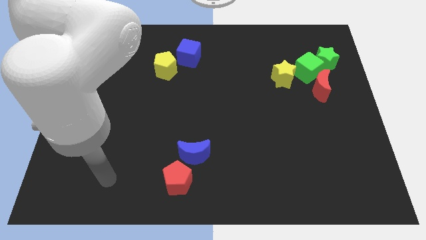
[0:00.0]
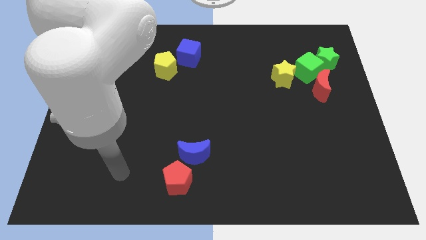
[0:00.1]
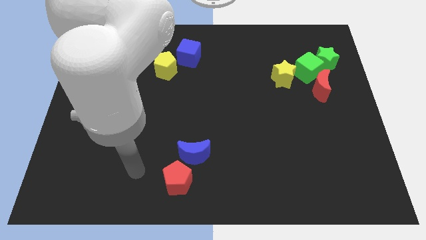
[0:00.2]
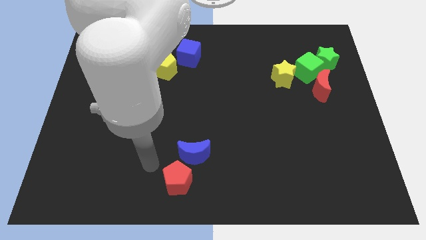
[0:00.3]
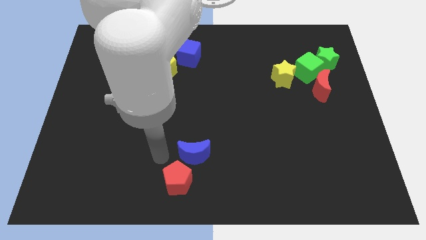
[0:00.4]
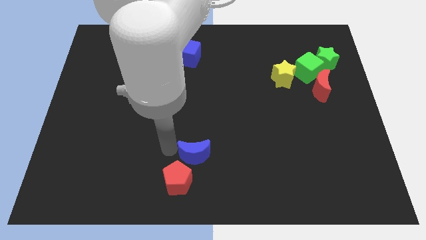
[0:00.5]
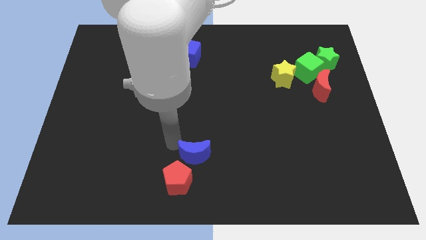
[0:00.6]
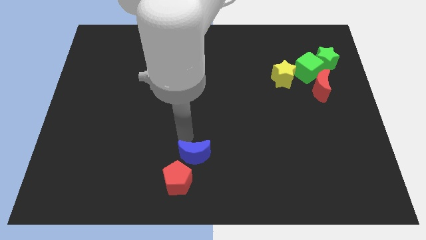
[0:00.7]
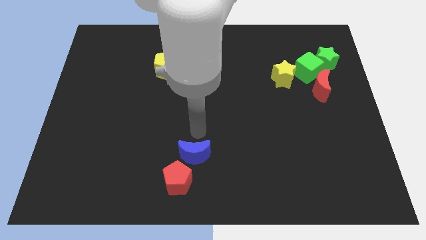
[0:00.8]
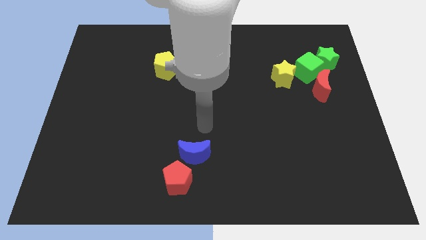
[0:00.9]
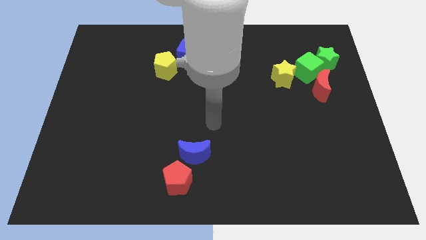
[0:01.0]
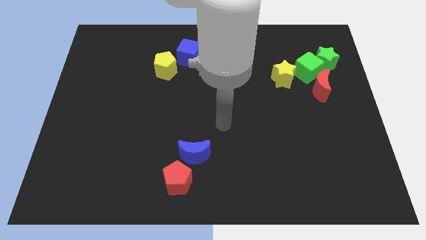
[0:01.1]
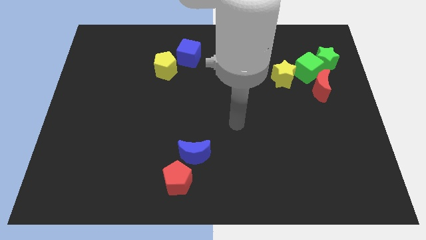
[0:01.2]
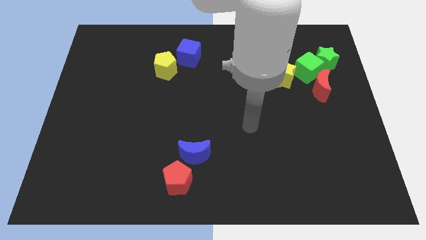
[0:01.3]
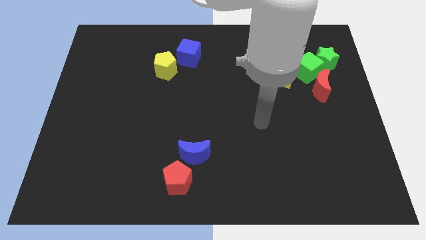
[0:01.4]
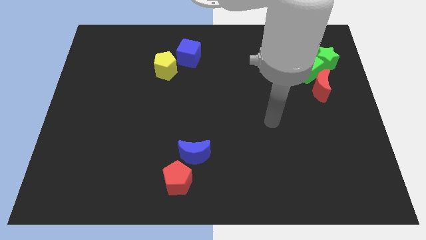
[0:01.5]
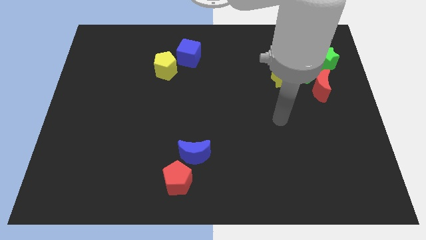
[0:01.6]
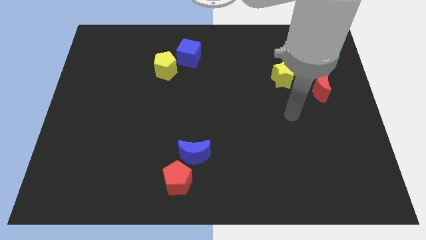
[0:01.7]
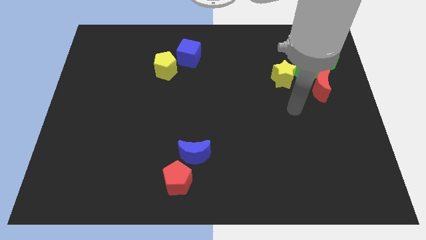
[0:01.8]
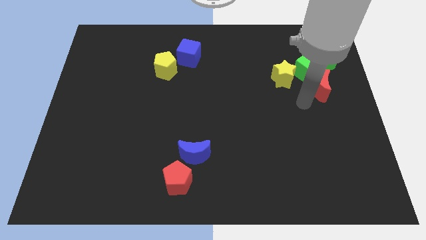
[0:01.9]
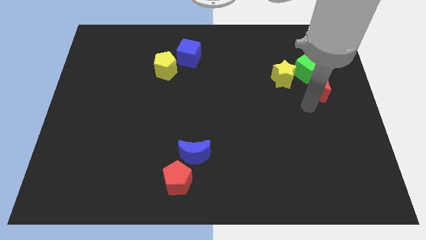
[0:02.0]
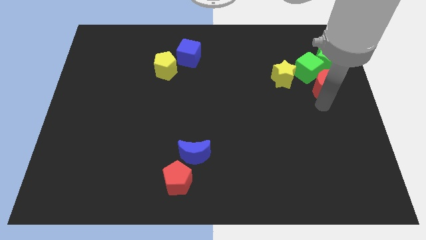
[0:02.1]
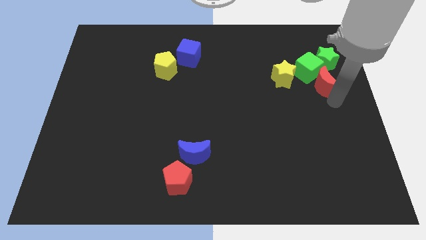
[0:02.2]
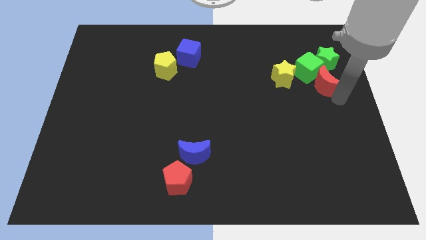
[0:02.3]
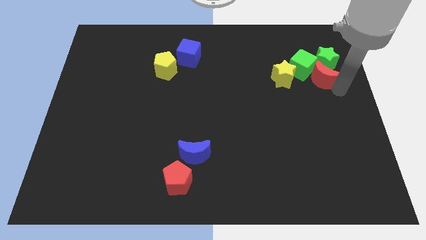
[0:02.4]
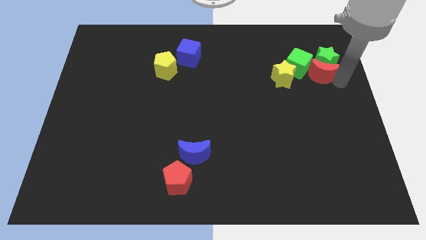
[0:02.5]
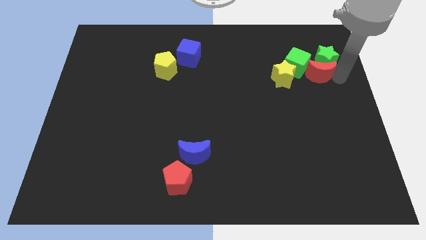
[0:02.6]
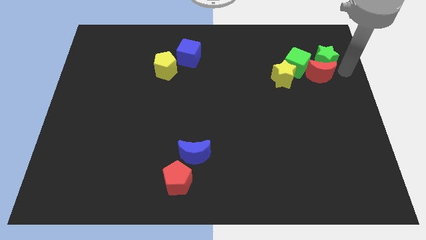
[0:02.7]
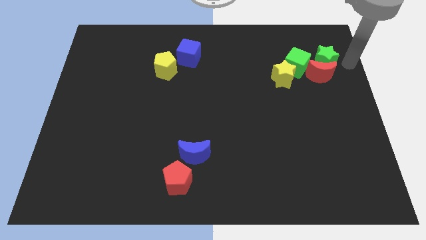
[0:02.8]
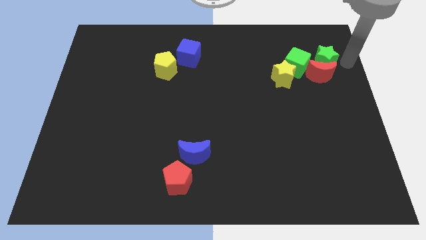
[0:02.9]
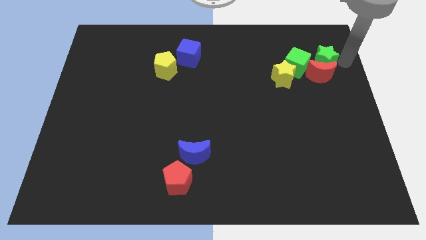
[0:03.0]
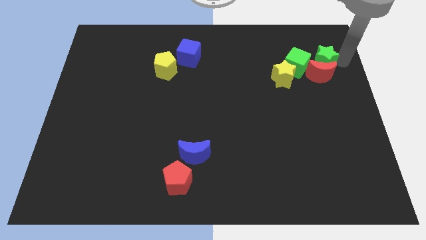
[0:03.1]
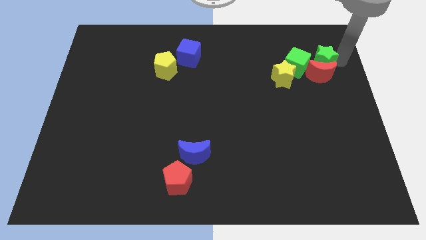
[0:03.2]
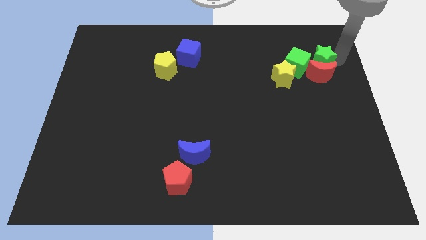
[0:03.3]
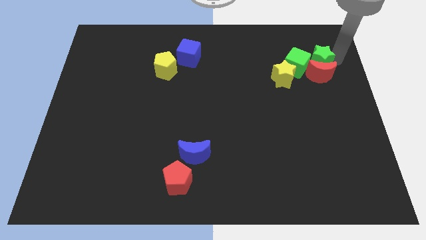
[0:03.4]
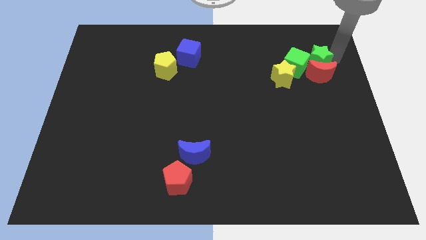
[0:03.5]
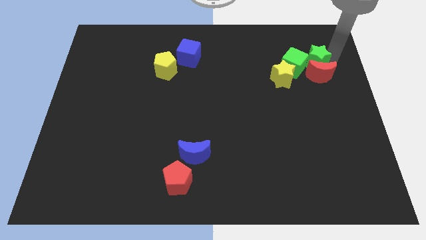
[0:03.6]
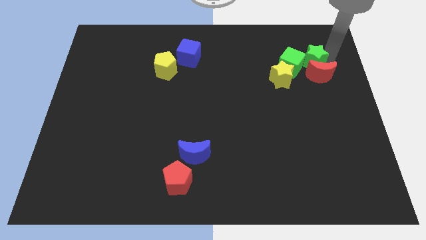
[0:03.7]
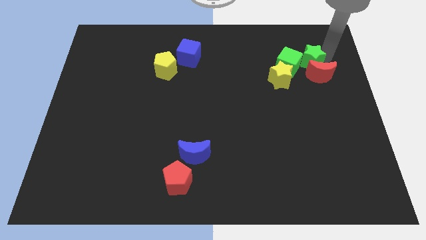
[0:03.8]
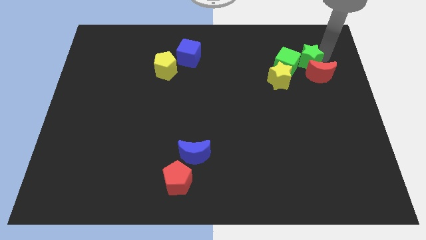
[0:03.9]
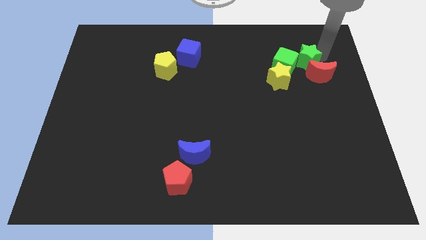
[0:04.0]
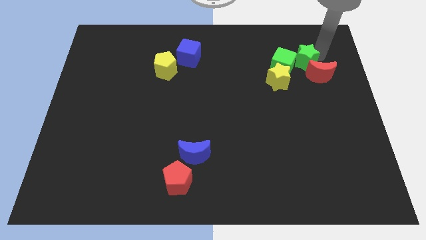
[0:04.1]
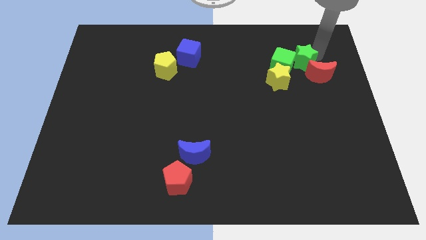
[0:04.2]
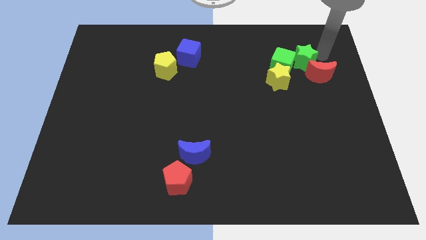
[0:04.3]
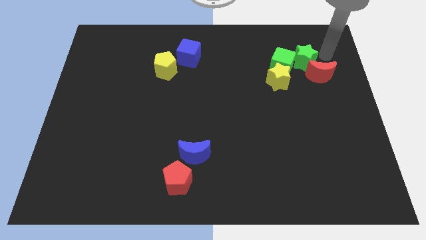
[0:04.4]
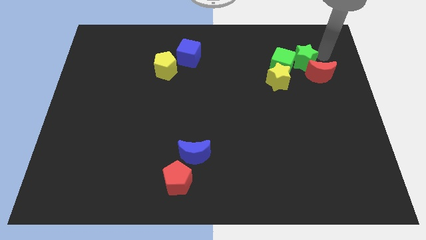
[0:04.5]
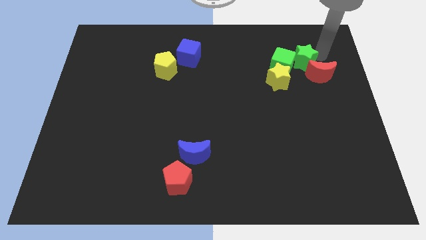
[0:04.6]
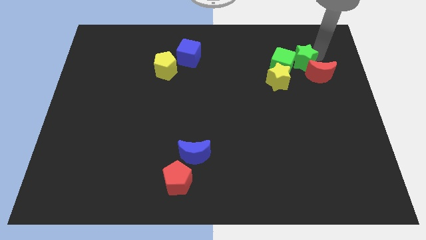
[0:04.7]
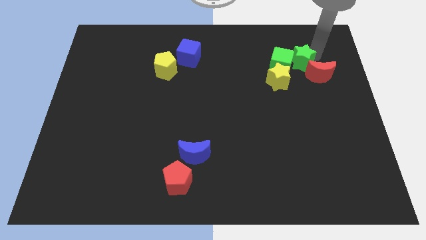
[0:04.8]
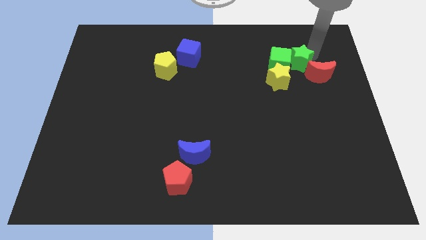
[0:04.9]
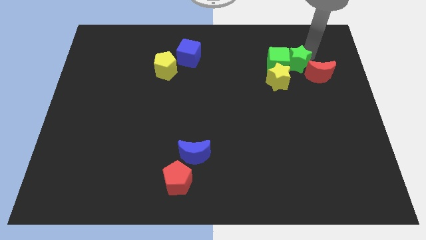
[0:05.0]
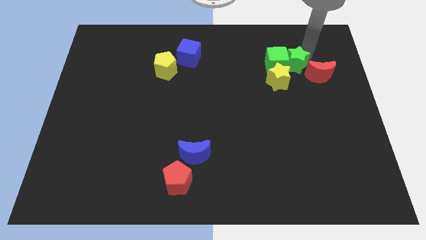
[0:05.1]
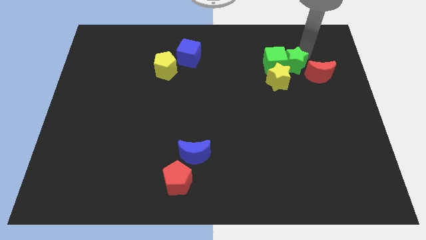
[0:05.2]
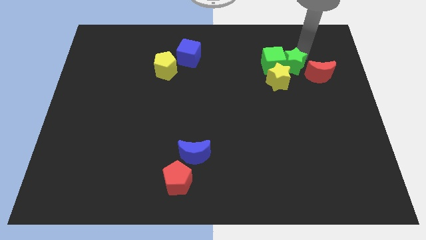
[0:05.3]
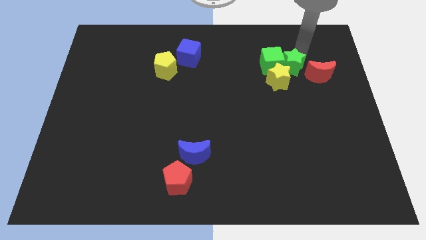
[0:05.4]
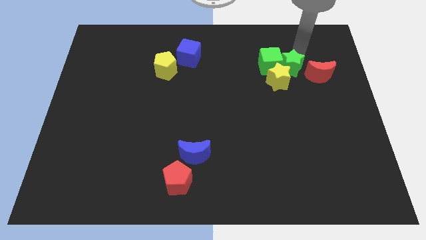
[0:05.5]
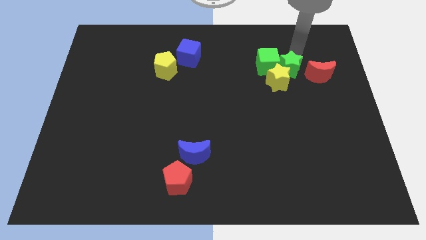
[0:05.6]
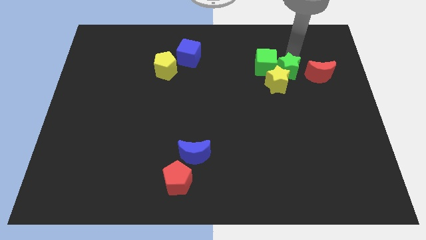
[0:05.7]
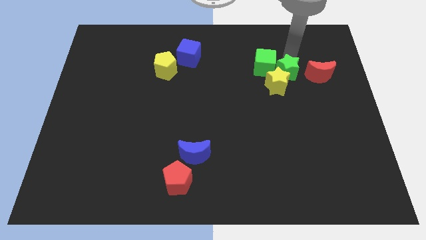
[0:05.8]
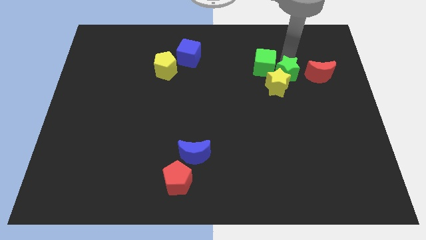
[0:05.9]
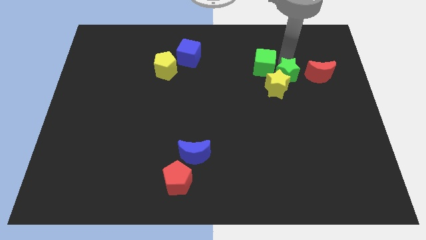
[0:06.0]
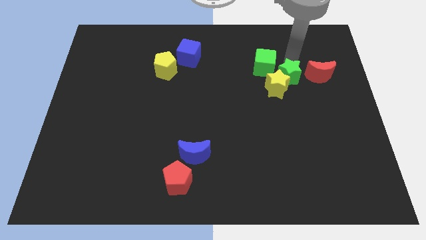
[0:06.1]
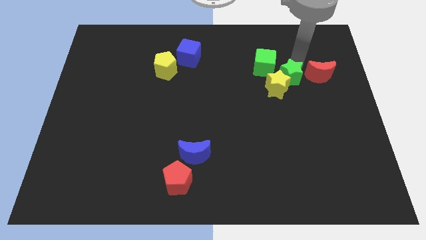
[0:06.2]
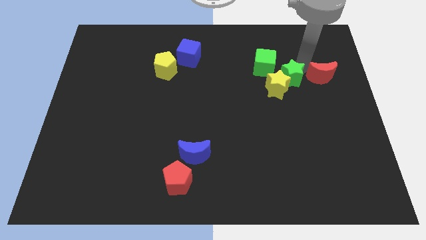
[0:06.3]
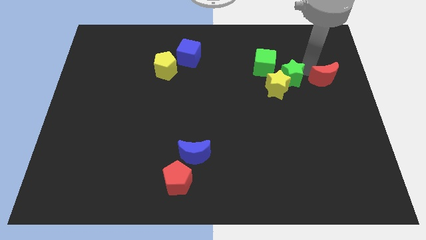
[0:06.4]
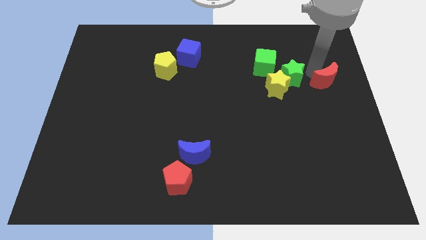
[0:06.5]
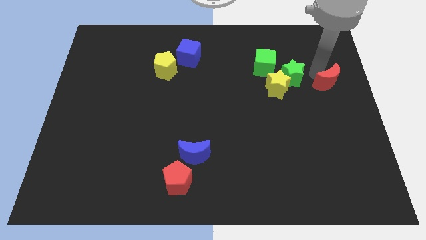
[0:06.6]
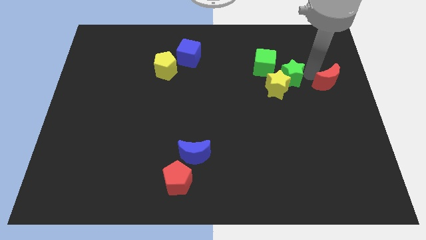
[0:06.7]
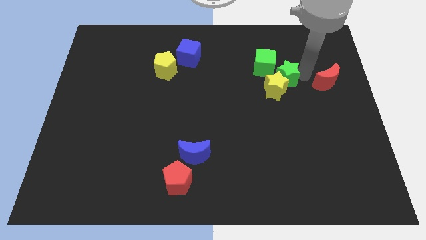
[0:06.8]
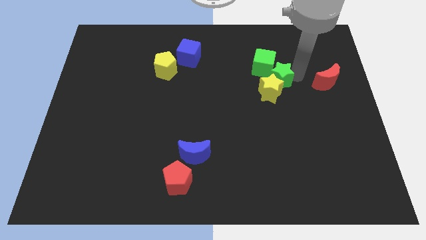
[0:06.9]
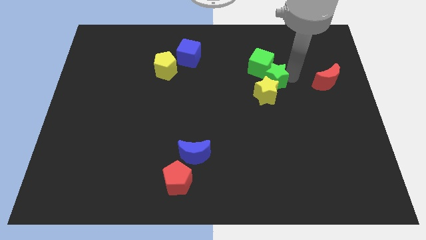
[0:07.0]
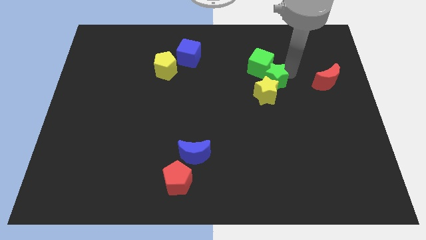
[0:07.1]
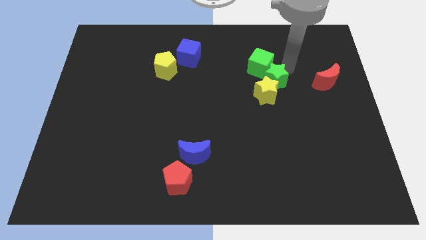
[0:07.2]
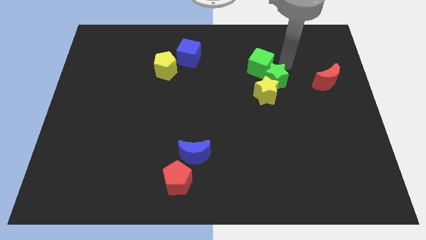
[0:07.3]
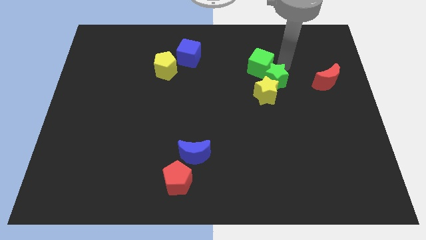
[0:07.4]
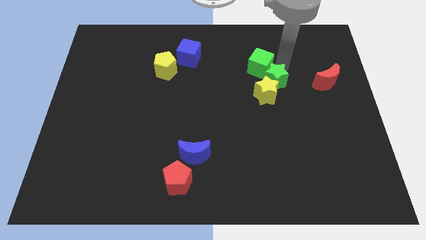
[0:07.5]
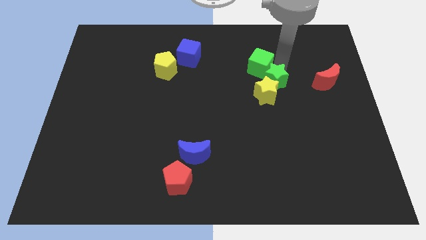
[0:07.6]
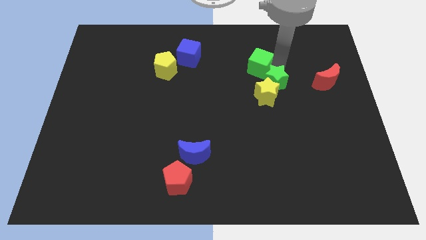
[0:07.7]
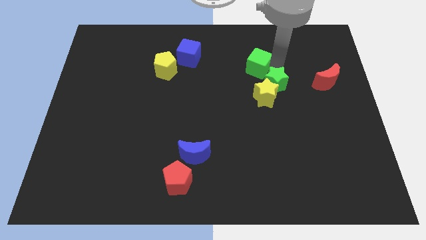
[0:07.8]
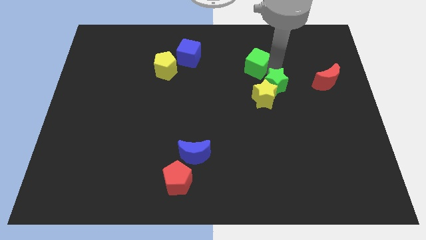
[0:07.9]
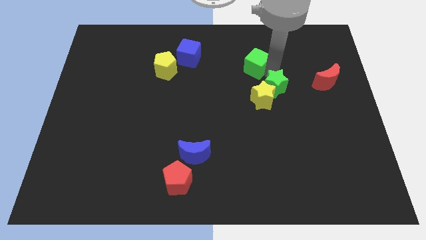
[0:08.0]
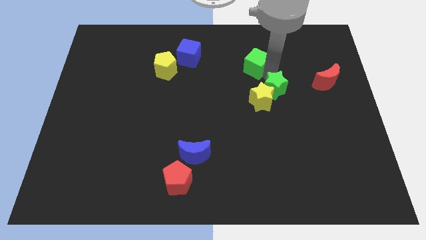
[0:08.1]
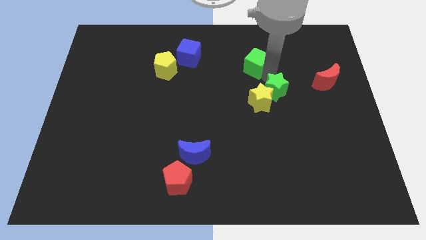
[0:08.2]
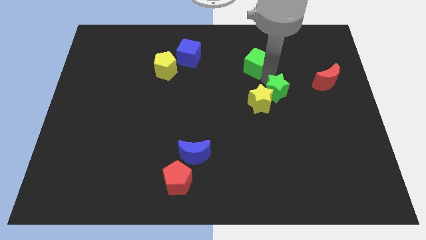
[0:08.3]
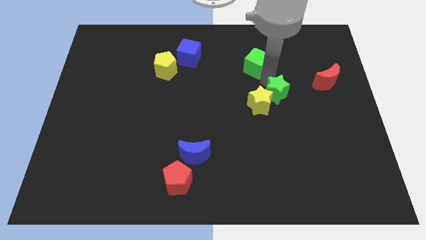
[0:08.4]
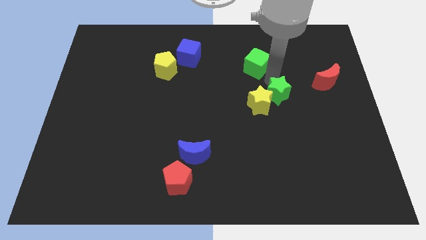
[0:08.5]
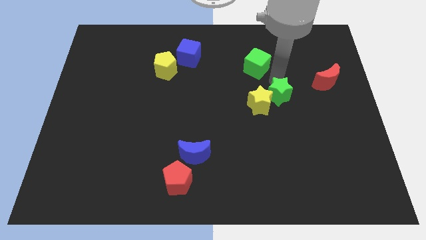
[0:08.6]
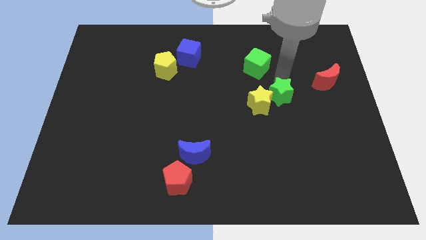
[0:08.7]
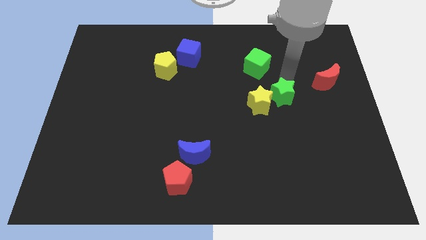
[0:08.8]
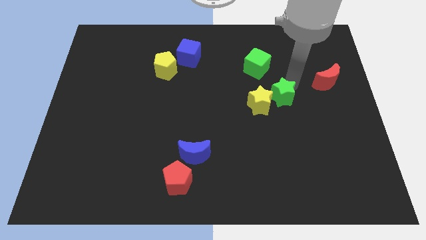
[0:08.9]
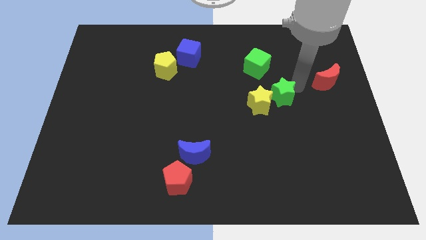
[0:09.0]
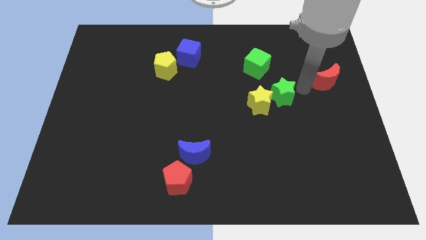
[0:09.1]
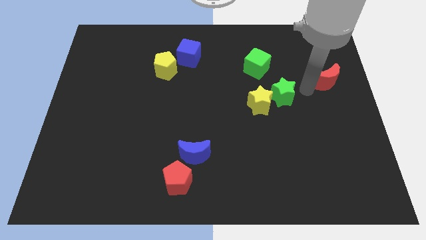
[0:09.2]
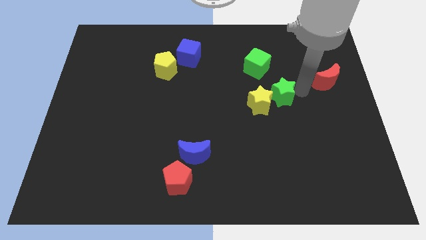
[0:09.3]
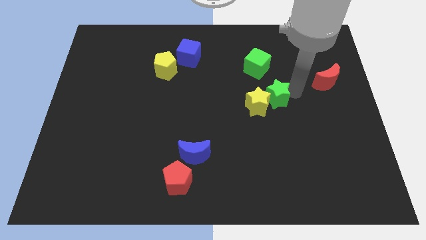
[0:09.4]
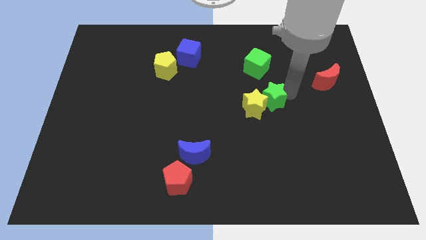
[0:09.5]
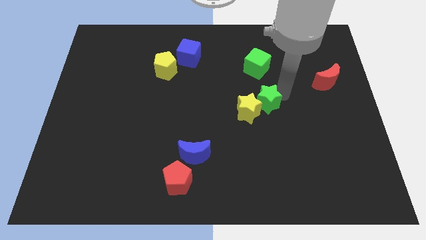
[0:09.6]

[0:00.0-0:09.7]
move the green star down and to the left
